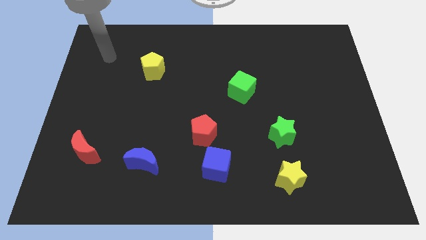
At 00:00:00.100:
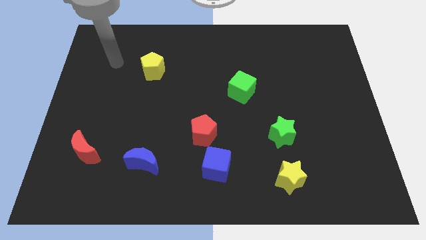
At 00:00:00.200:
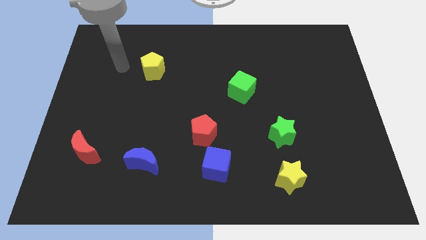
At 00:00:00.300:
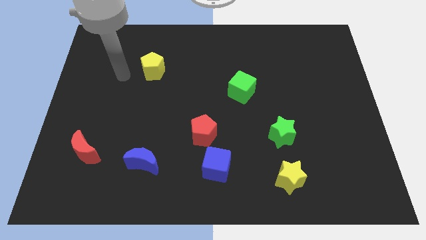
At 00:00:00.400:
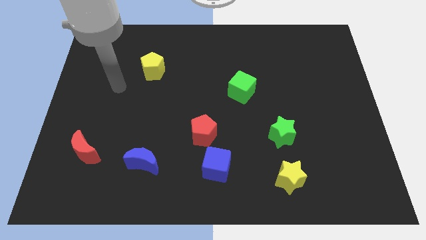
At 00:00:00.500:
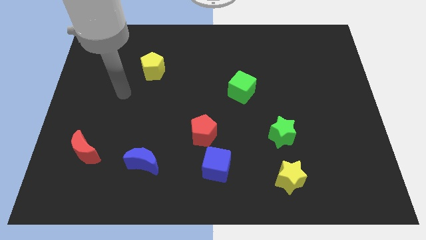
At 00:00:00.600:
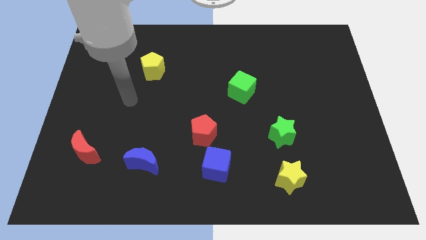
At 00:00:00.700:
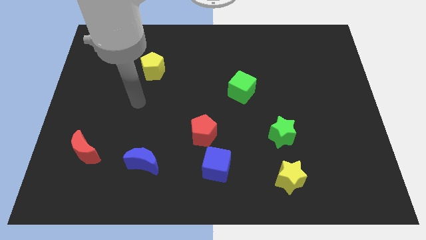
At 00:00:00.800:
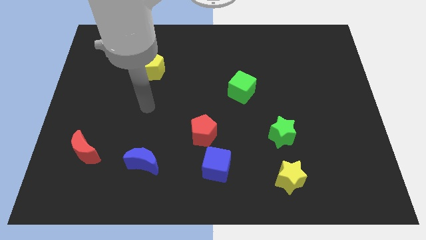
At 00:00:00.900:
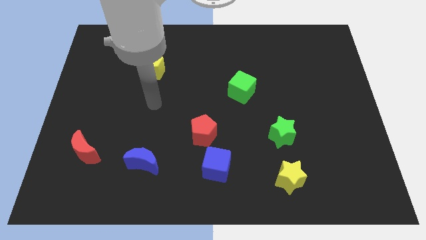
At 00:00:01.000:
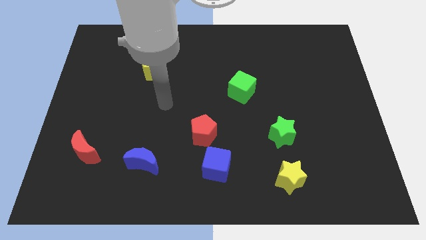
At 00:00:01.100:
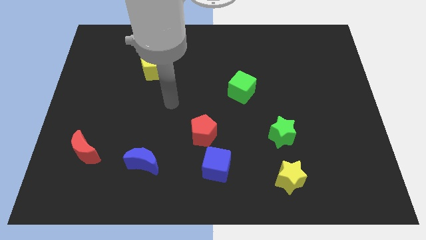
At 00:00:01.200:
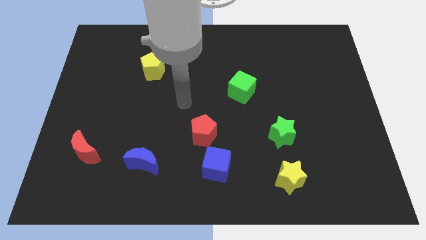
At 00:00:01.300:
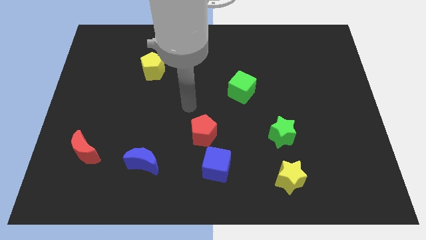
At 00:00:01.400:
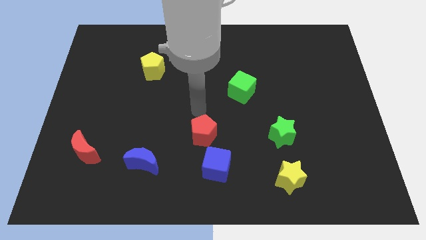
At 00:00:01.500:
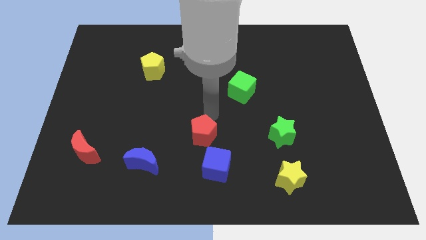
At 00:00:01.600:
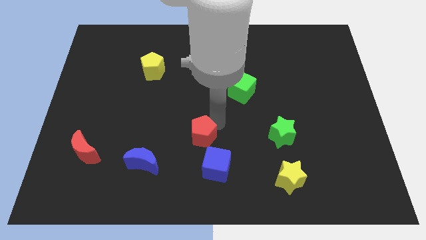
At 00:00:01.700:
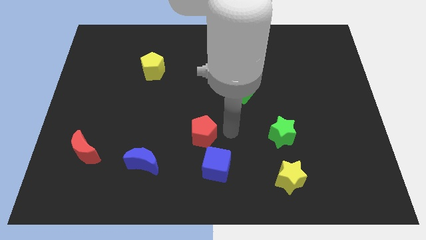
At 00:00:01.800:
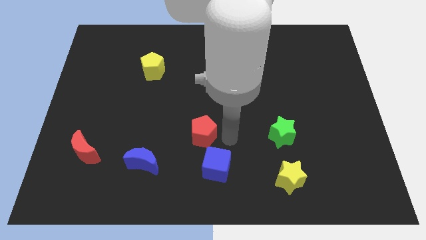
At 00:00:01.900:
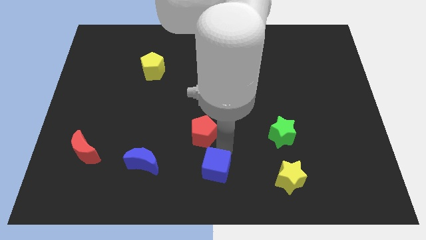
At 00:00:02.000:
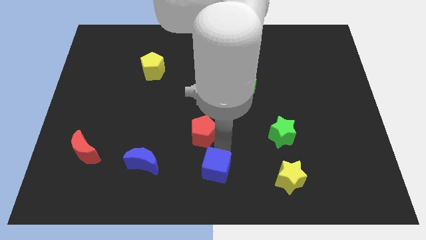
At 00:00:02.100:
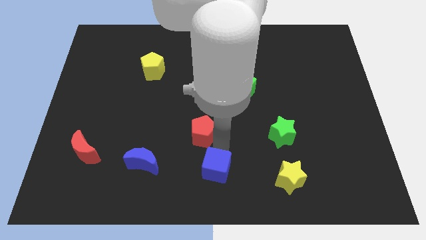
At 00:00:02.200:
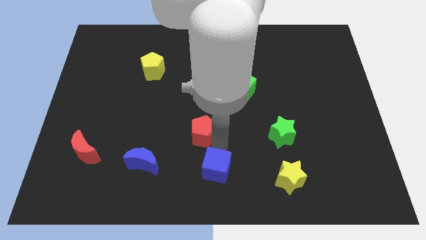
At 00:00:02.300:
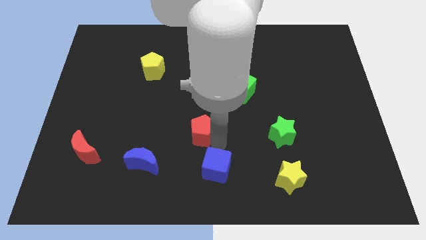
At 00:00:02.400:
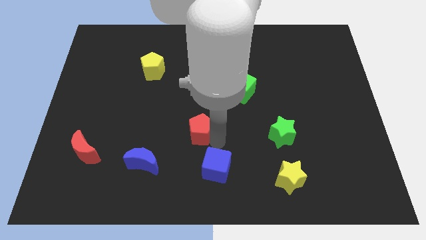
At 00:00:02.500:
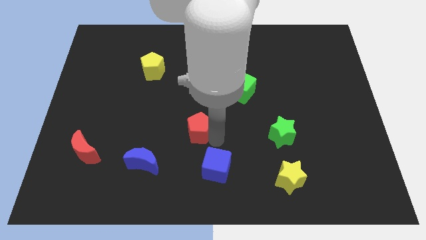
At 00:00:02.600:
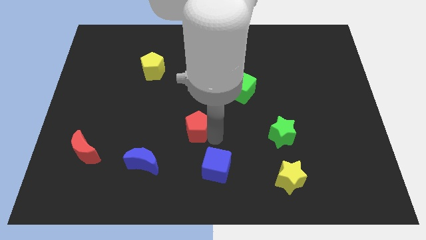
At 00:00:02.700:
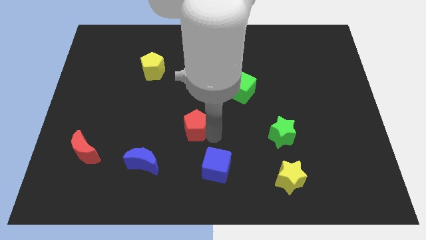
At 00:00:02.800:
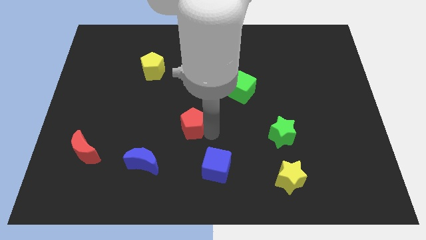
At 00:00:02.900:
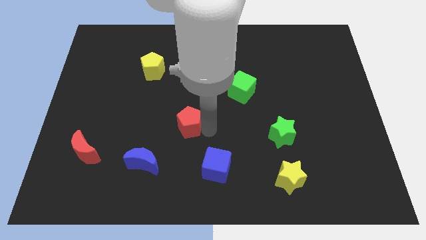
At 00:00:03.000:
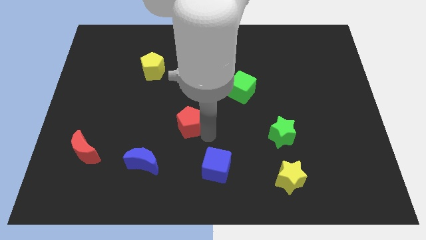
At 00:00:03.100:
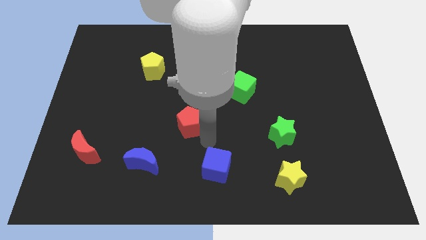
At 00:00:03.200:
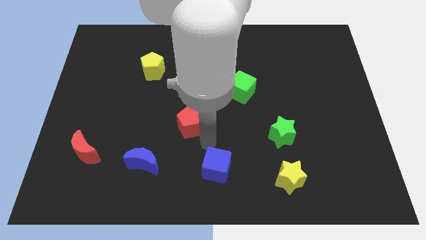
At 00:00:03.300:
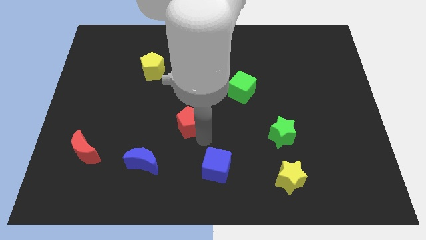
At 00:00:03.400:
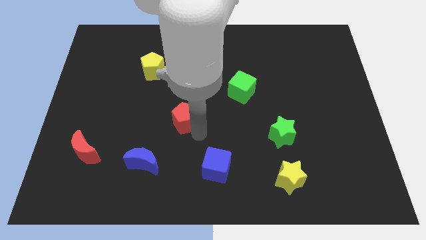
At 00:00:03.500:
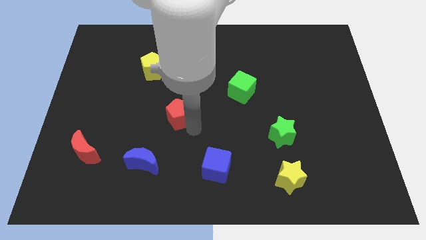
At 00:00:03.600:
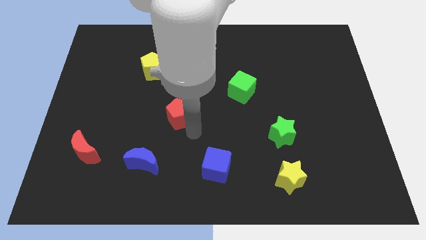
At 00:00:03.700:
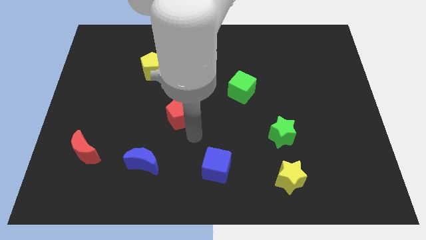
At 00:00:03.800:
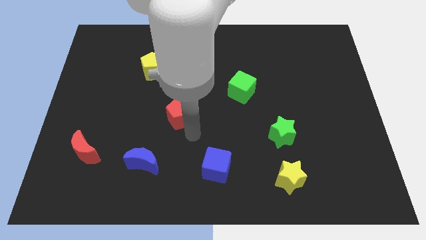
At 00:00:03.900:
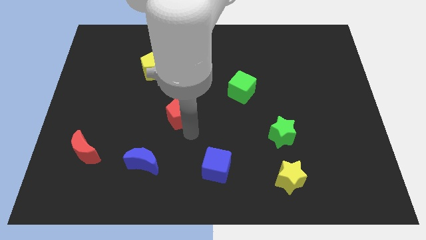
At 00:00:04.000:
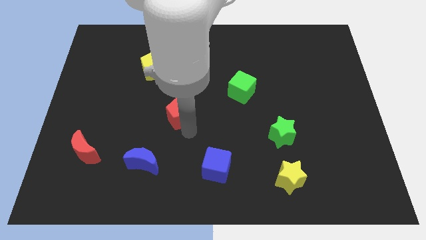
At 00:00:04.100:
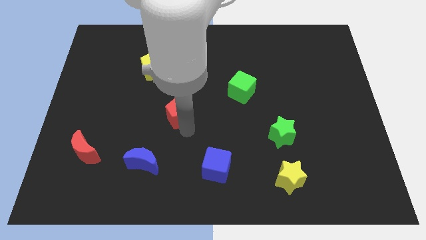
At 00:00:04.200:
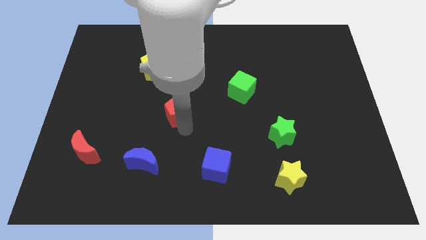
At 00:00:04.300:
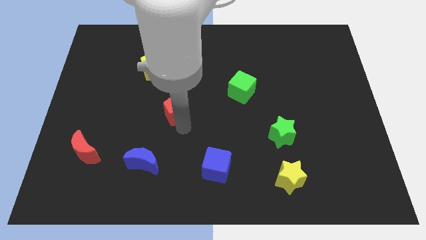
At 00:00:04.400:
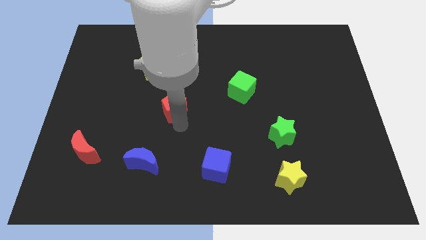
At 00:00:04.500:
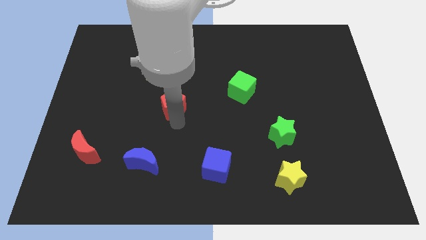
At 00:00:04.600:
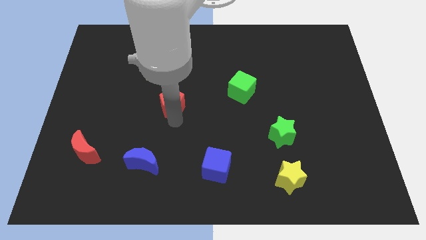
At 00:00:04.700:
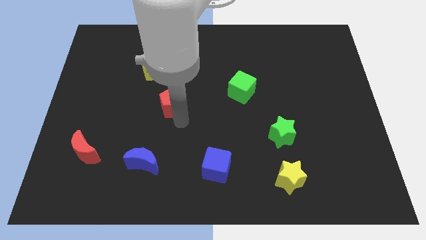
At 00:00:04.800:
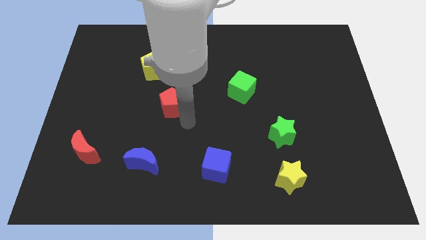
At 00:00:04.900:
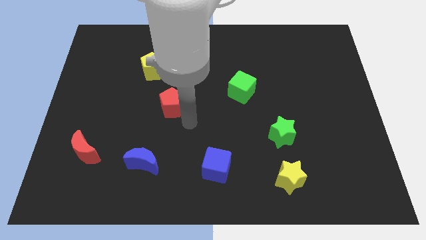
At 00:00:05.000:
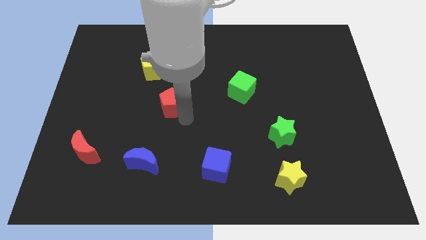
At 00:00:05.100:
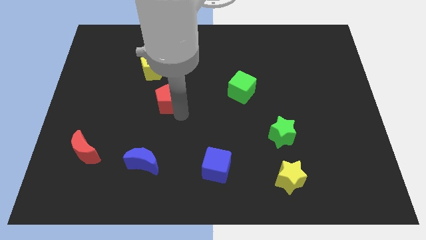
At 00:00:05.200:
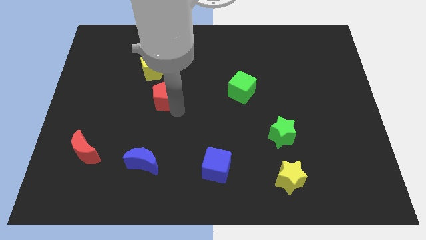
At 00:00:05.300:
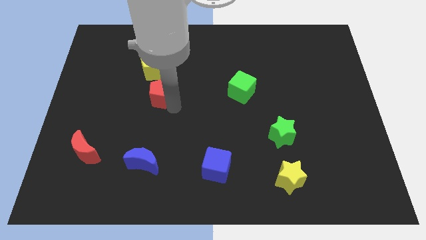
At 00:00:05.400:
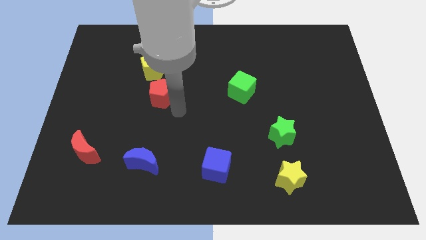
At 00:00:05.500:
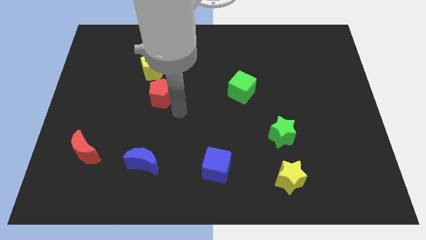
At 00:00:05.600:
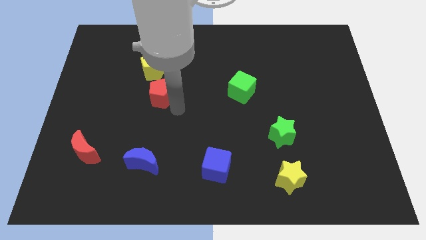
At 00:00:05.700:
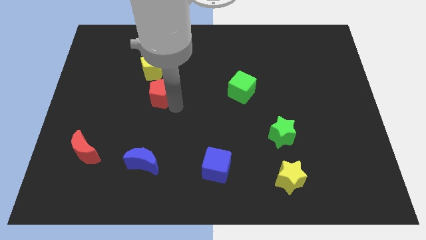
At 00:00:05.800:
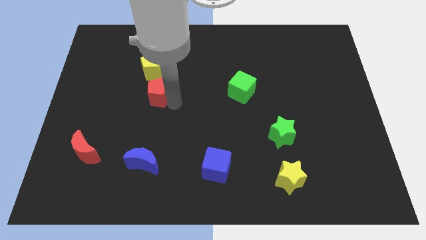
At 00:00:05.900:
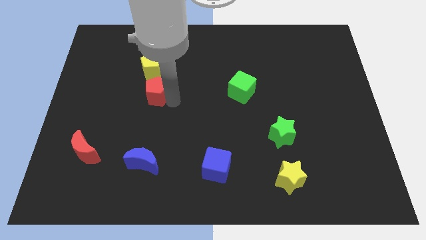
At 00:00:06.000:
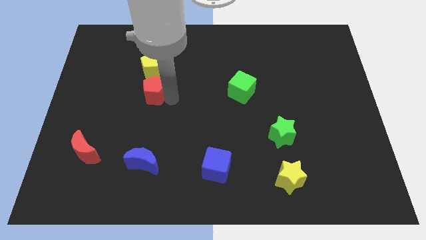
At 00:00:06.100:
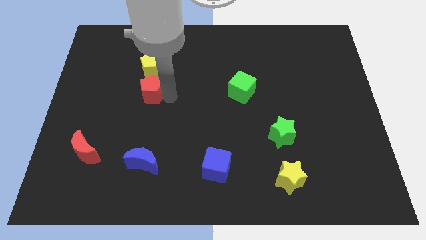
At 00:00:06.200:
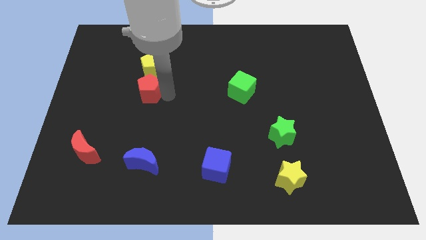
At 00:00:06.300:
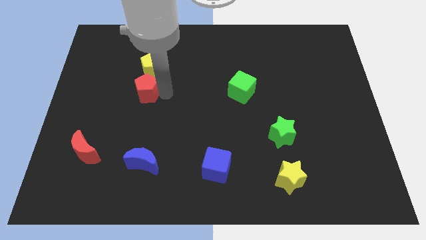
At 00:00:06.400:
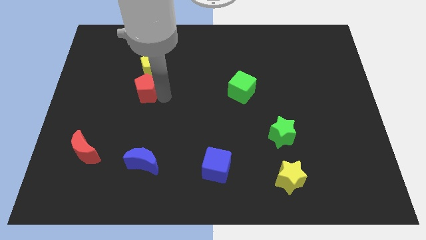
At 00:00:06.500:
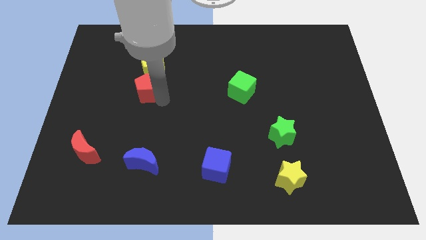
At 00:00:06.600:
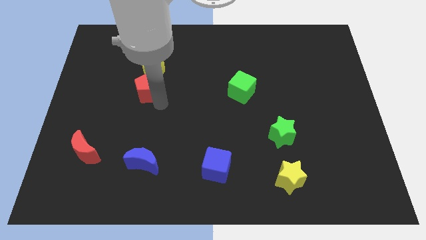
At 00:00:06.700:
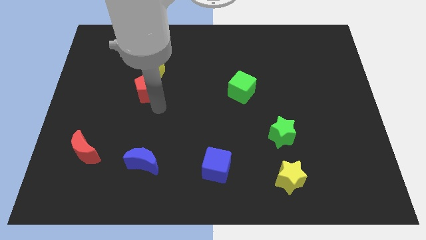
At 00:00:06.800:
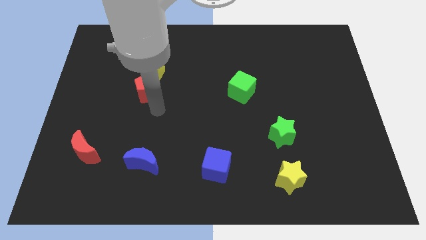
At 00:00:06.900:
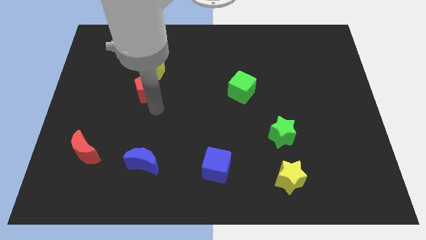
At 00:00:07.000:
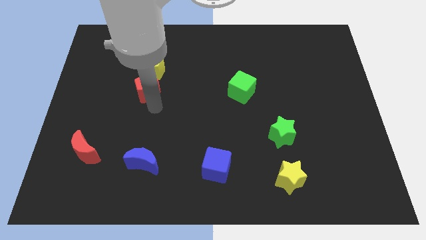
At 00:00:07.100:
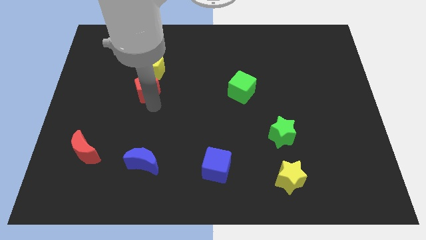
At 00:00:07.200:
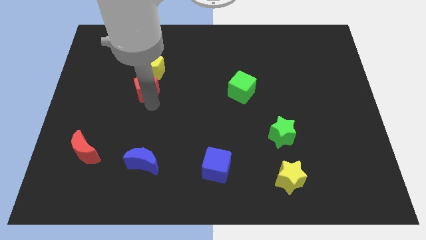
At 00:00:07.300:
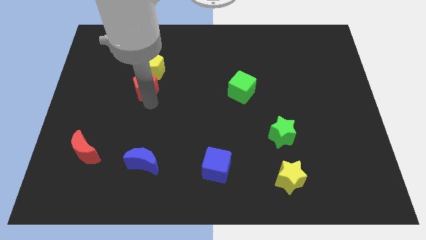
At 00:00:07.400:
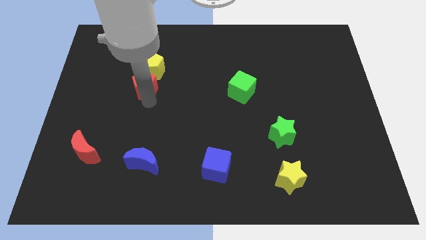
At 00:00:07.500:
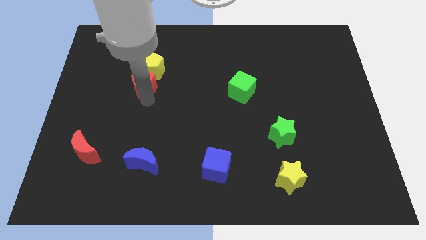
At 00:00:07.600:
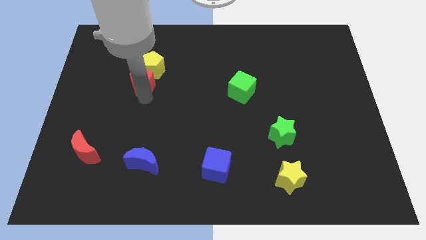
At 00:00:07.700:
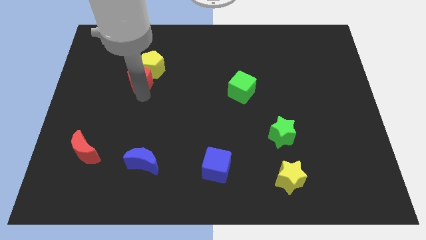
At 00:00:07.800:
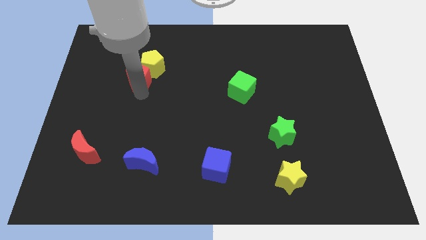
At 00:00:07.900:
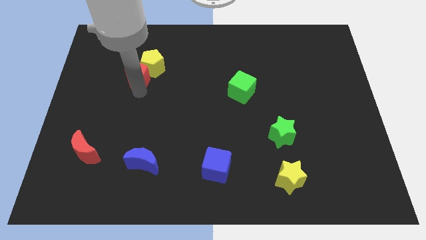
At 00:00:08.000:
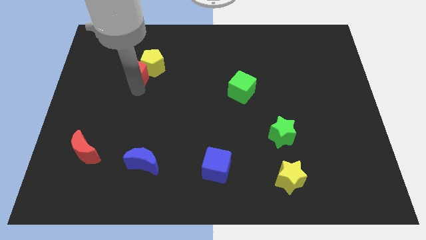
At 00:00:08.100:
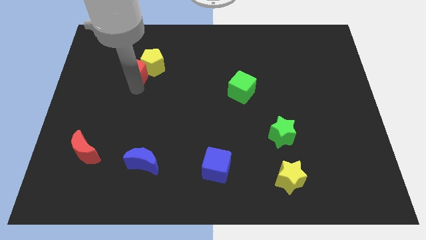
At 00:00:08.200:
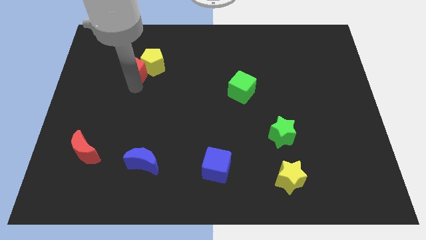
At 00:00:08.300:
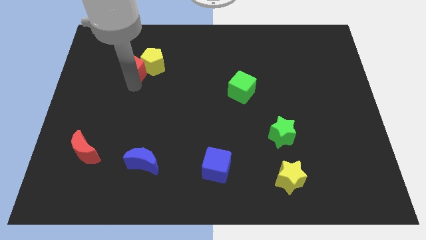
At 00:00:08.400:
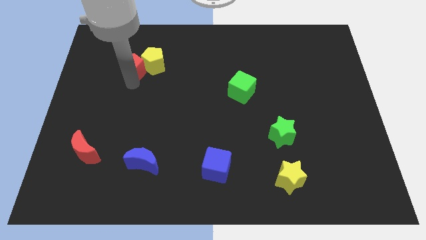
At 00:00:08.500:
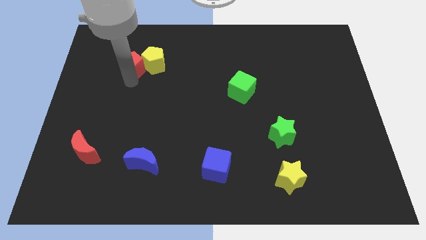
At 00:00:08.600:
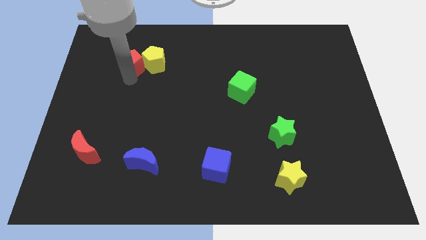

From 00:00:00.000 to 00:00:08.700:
slide the red pentagon to the top left of the yellow pentagon
